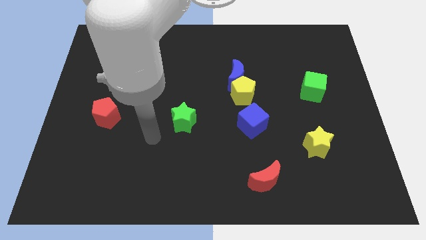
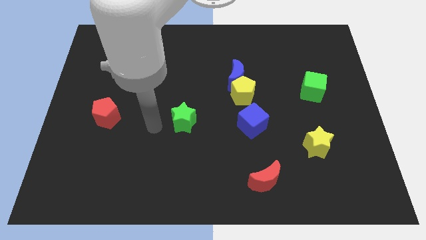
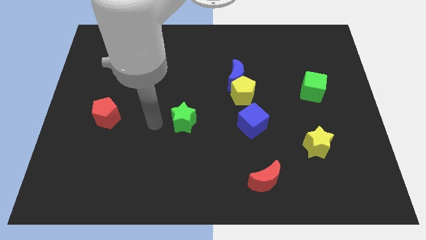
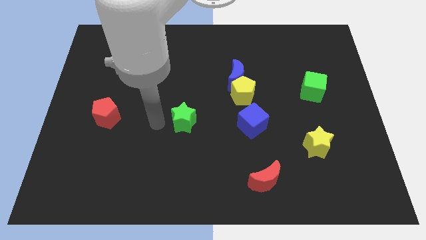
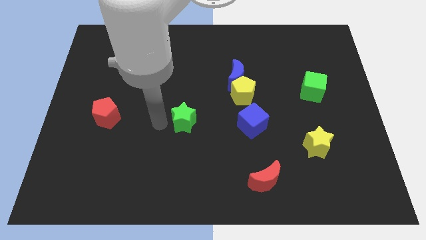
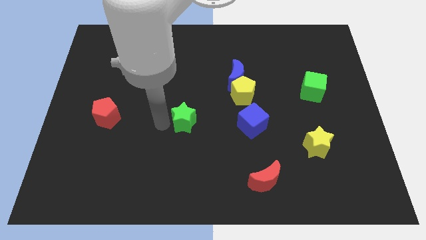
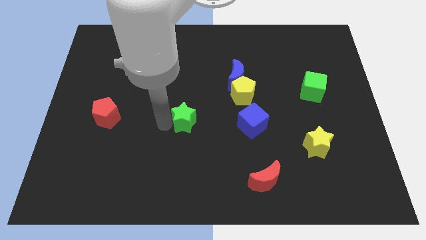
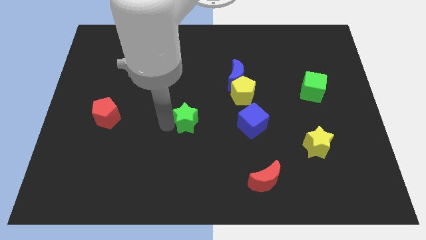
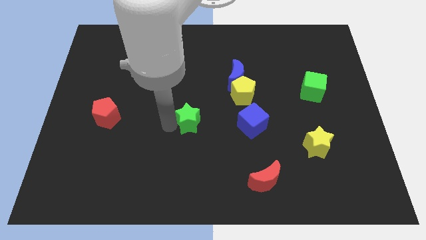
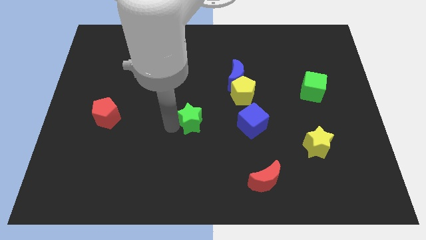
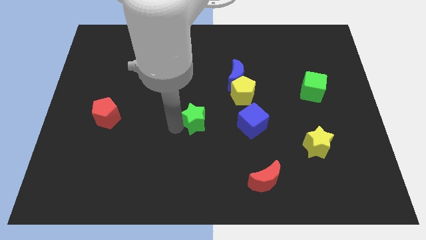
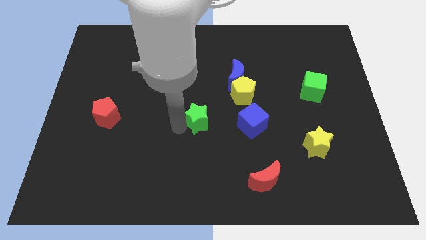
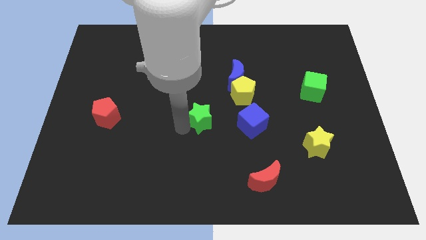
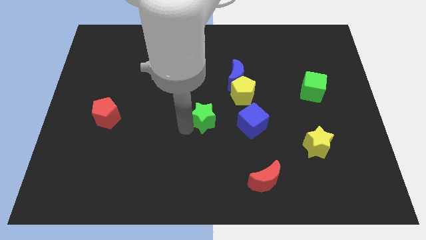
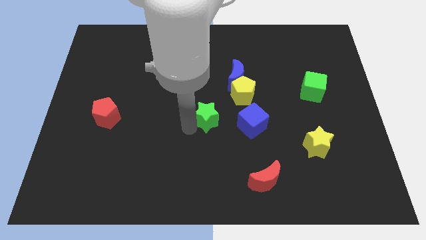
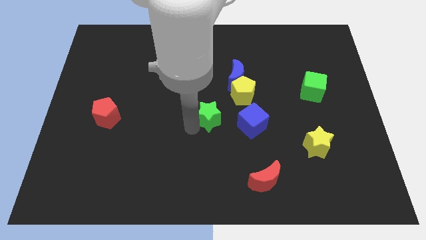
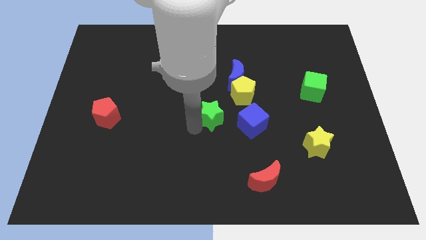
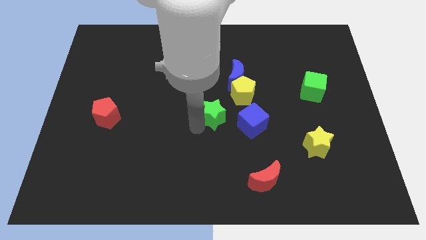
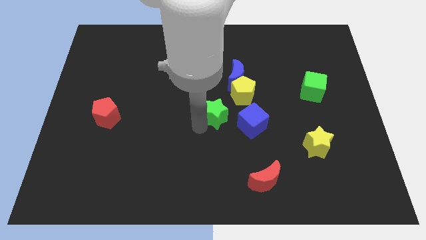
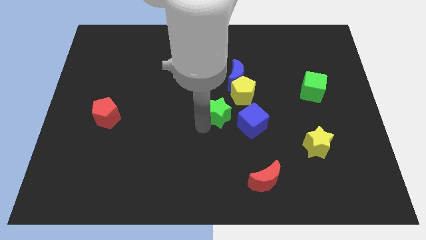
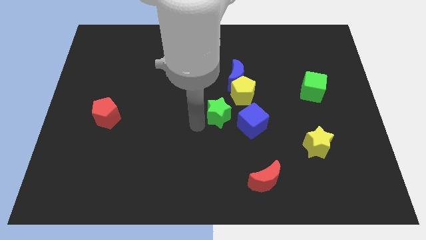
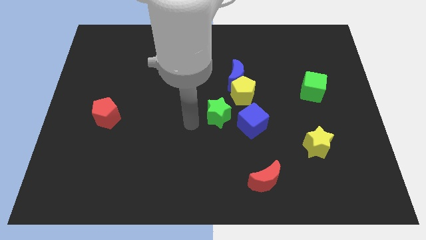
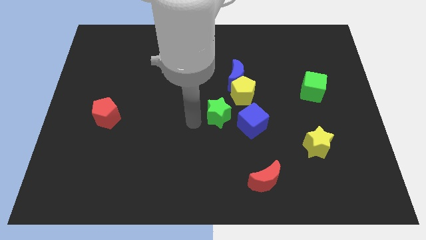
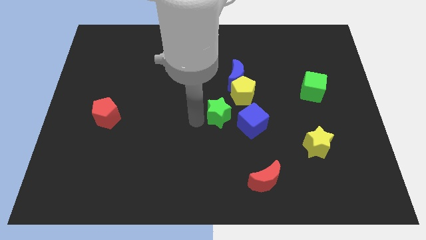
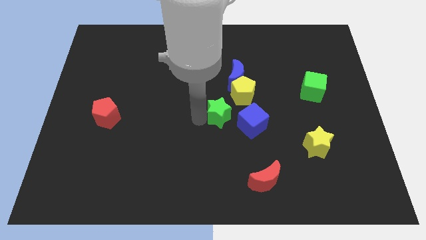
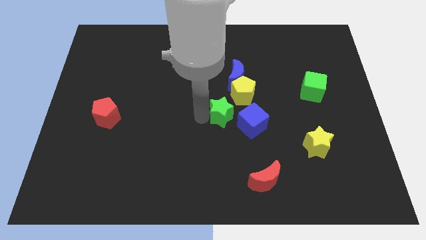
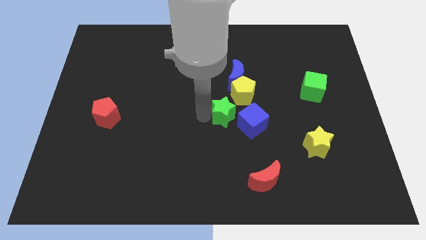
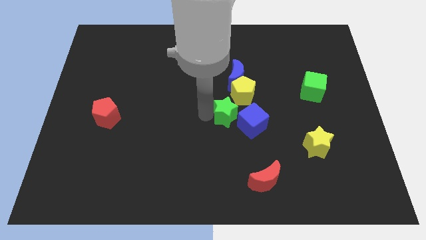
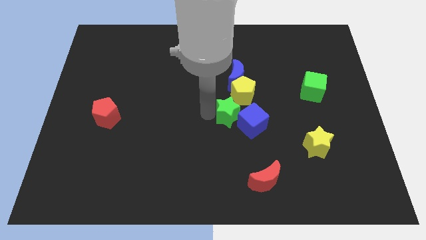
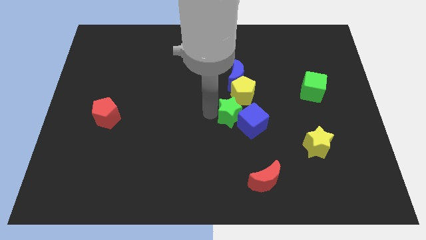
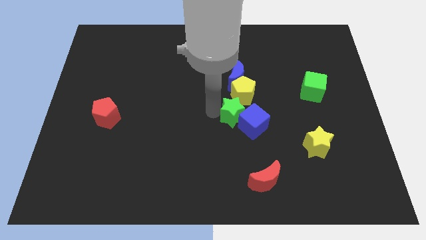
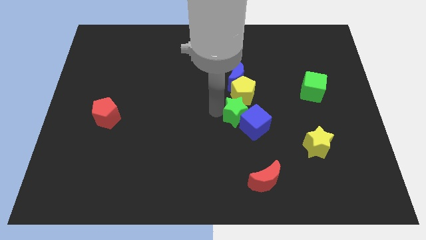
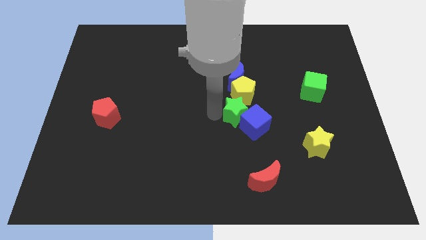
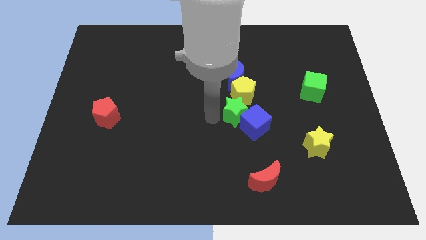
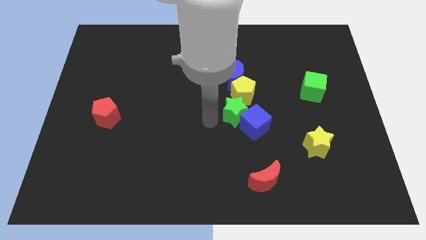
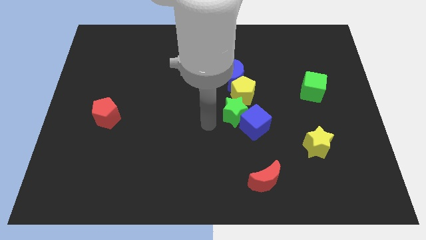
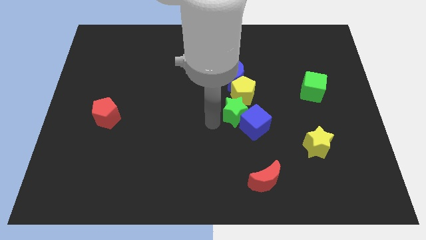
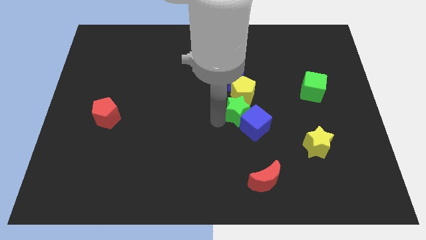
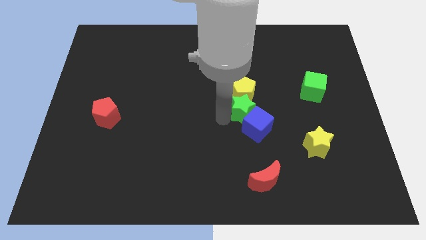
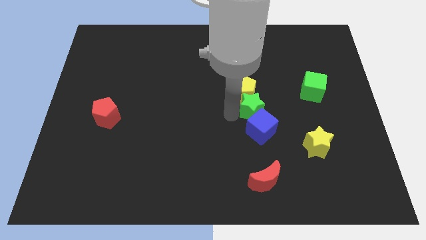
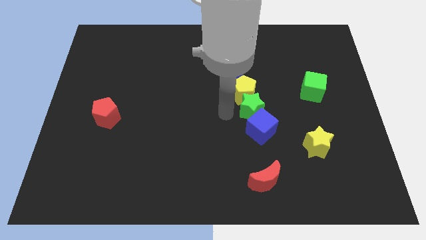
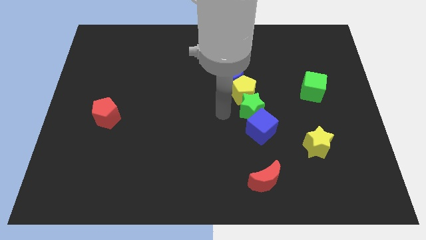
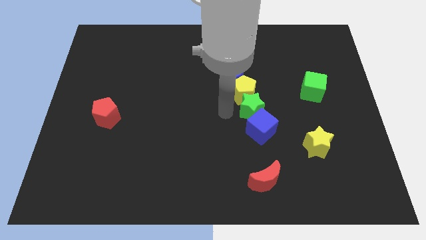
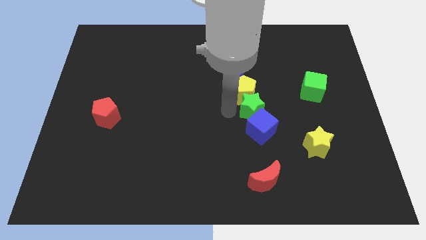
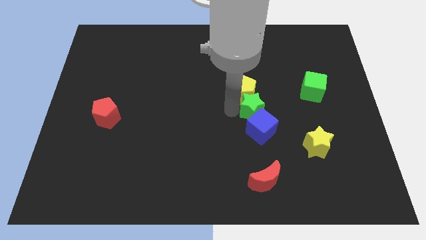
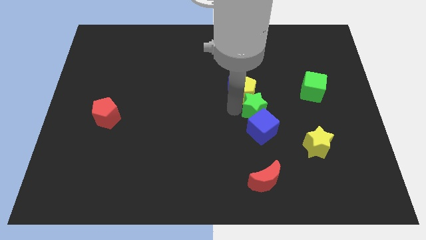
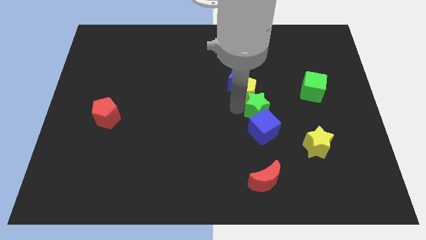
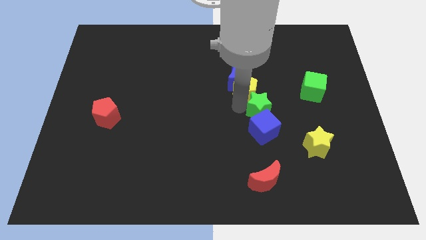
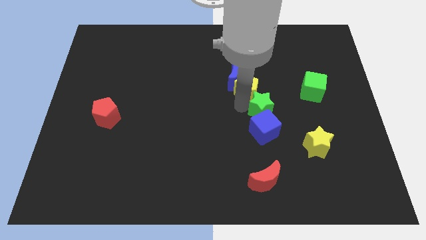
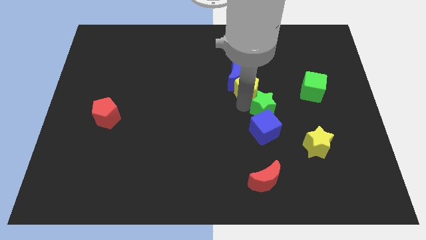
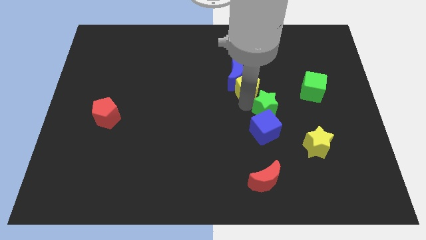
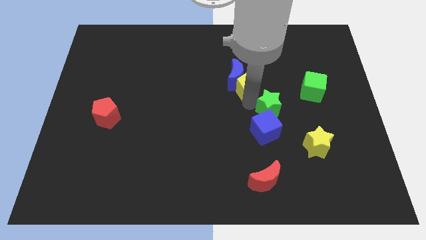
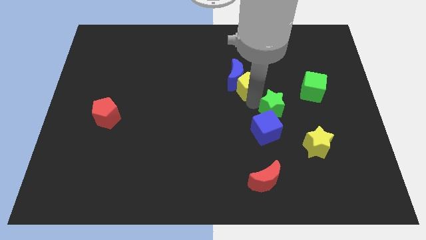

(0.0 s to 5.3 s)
push the green star right

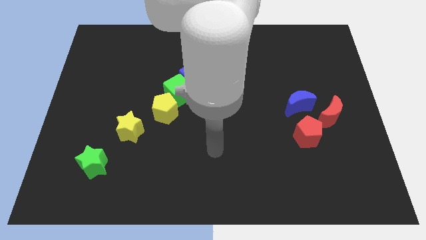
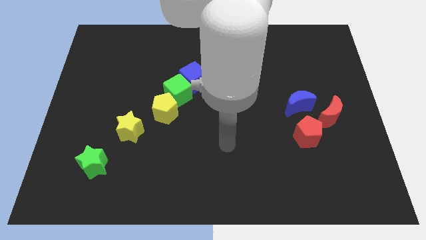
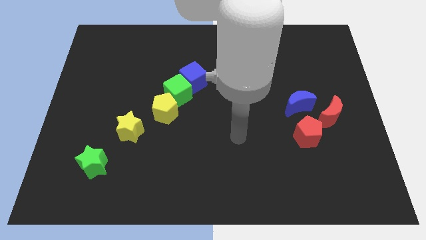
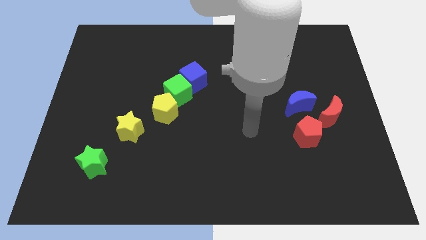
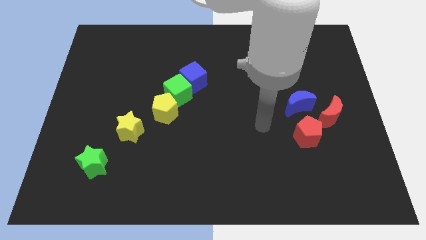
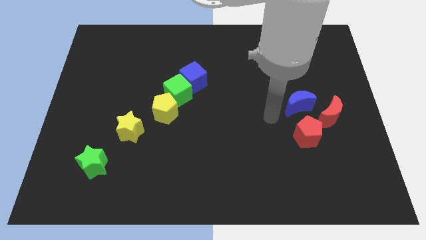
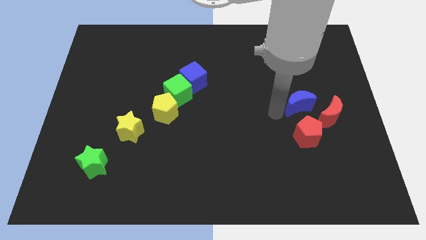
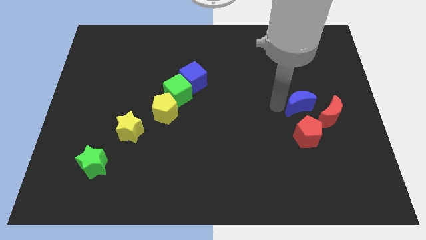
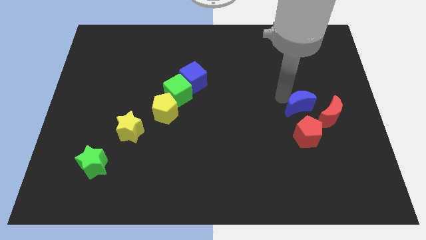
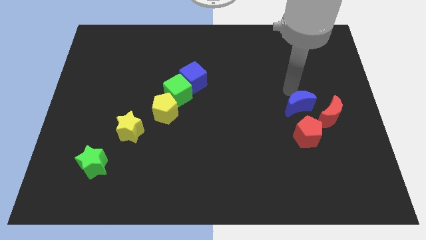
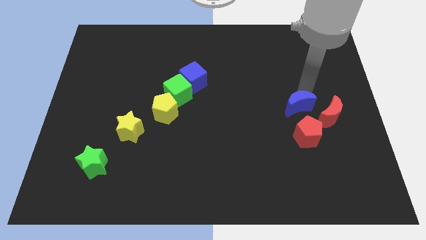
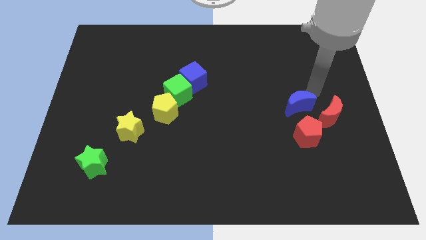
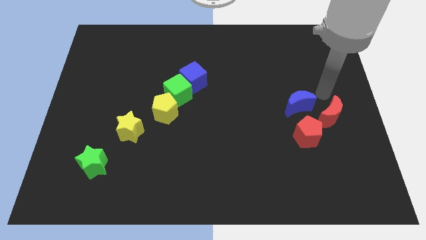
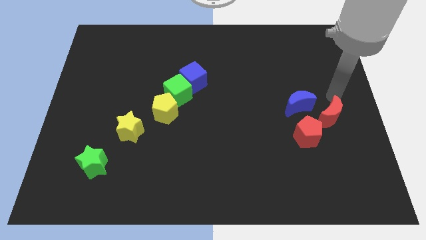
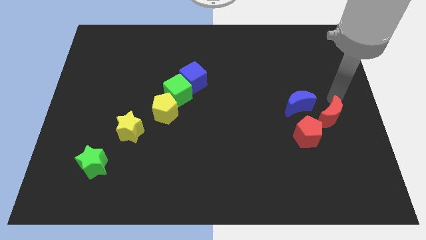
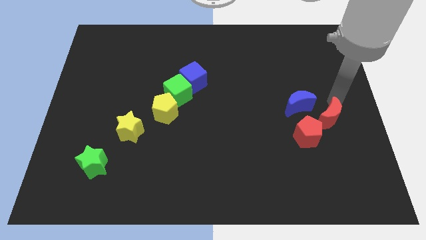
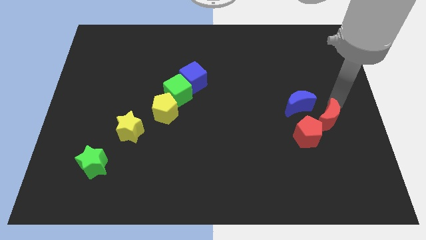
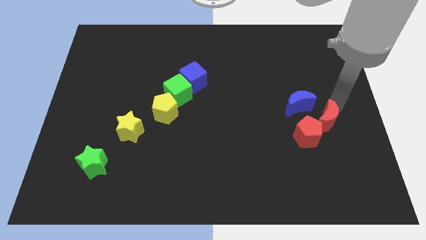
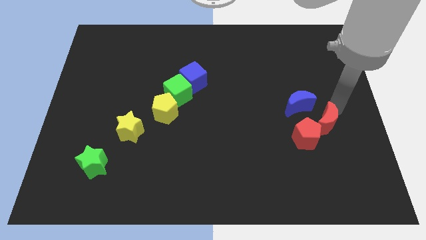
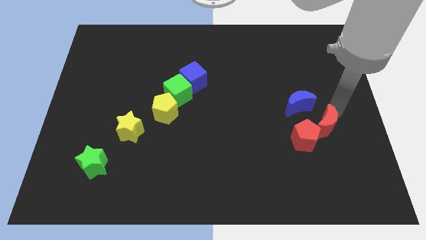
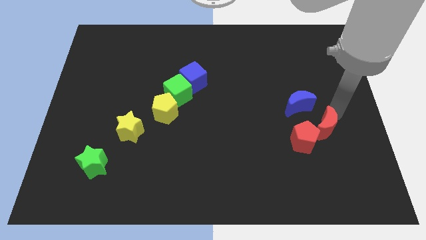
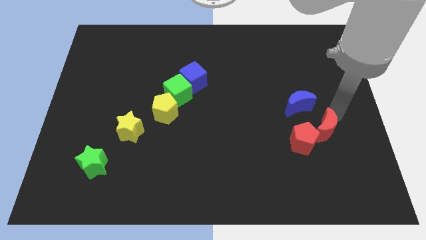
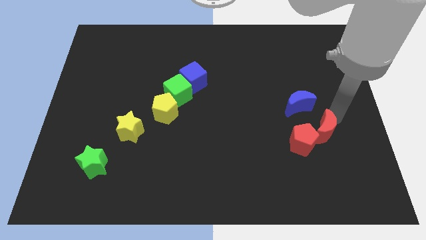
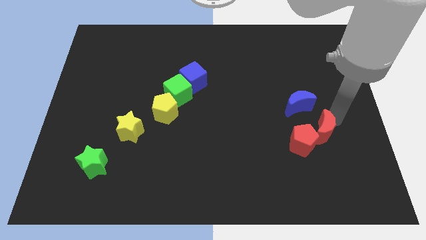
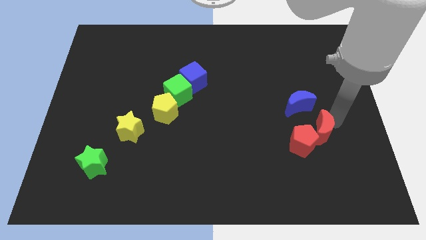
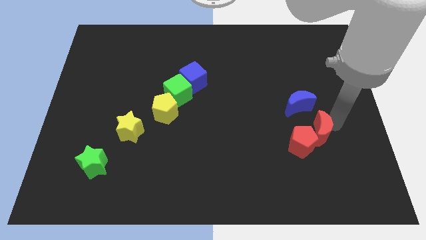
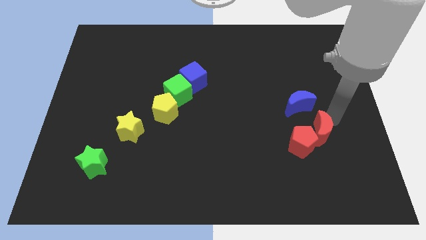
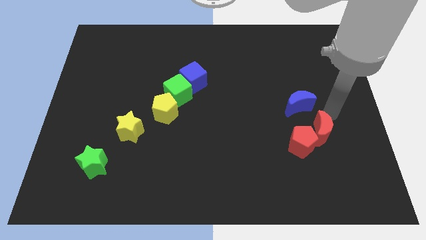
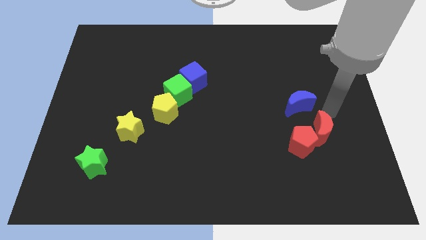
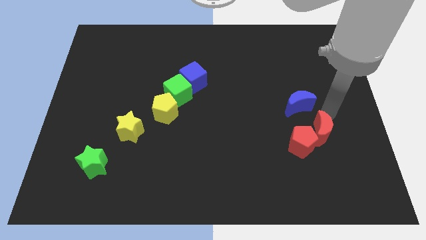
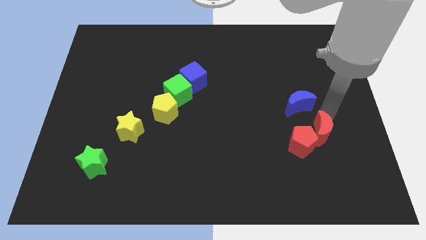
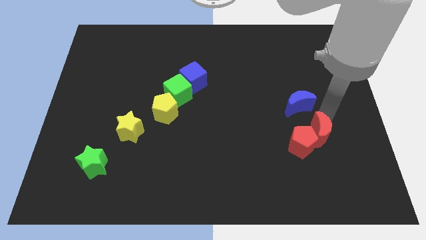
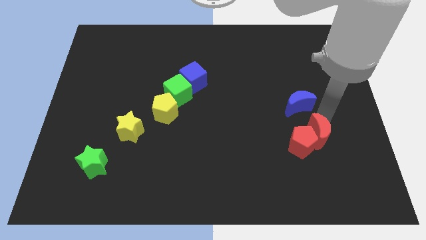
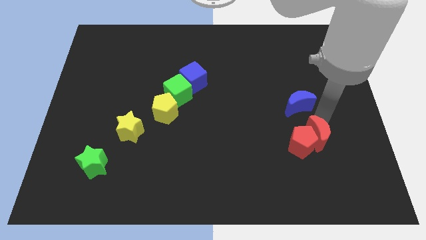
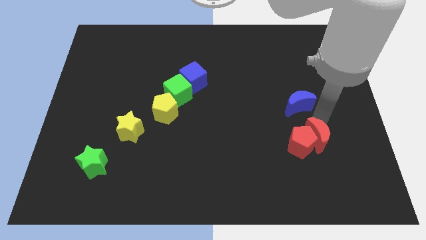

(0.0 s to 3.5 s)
slide the red moon downwards and to the left diagonally a bit
